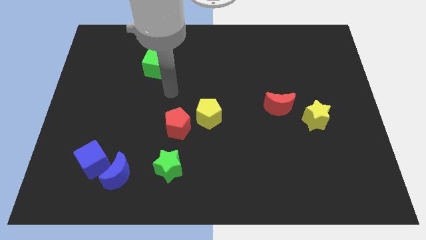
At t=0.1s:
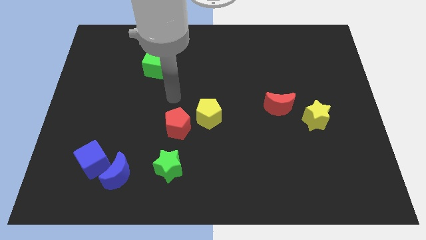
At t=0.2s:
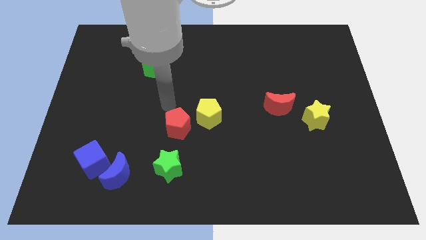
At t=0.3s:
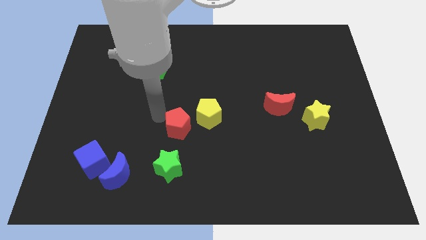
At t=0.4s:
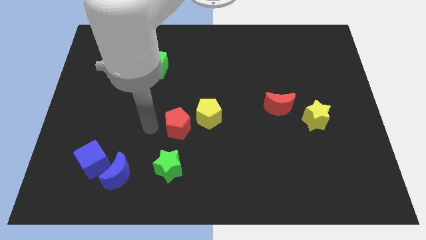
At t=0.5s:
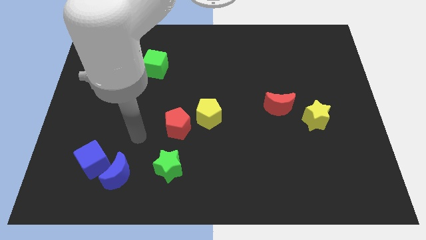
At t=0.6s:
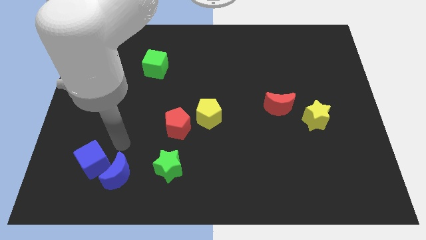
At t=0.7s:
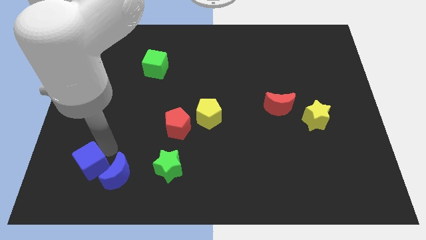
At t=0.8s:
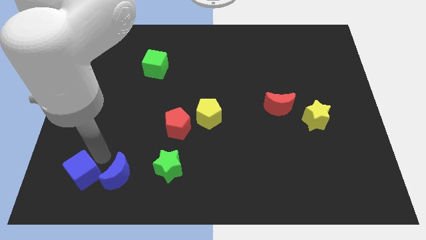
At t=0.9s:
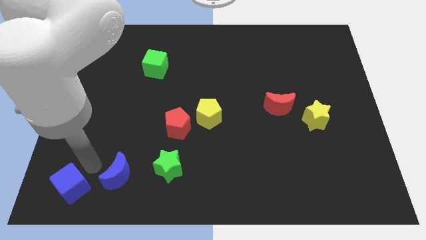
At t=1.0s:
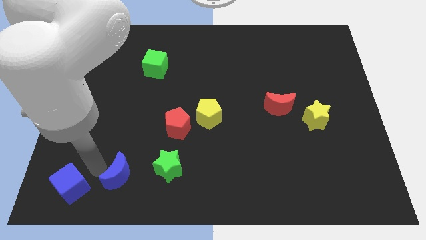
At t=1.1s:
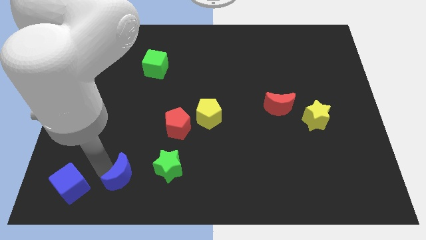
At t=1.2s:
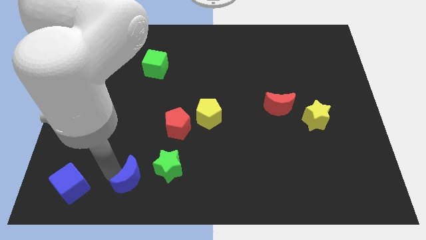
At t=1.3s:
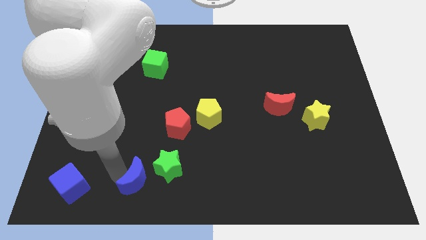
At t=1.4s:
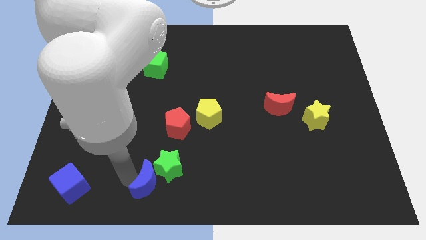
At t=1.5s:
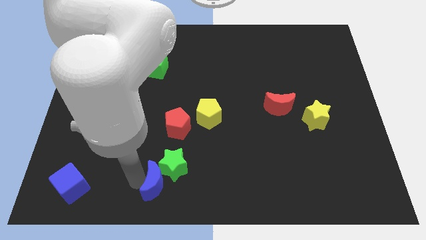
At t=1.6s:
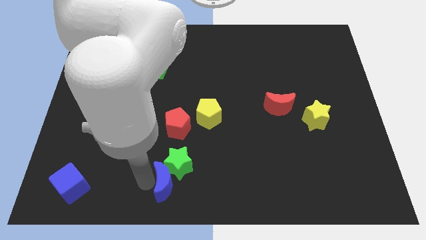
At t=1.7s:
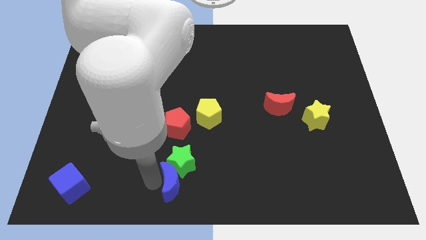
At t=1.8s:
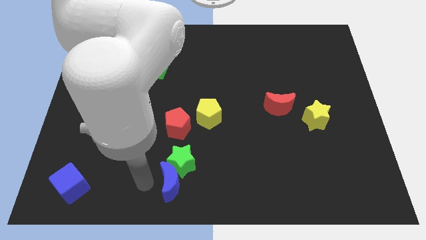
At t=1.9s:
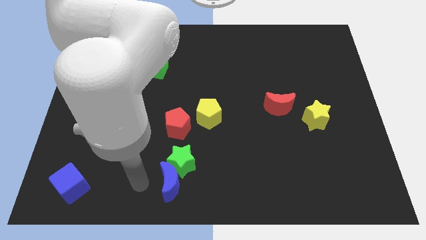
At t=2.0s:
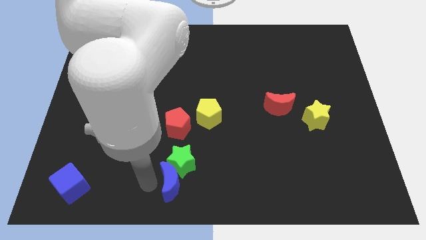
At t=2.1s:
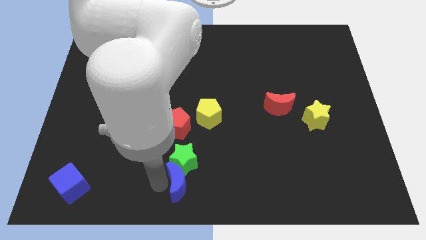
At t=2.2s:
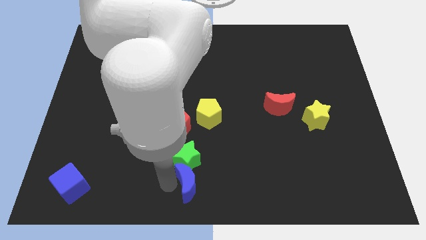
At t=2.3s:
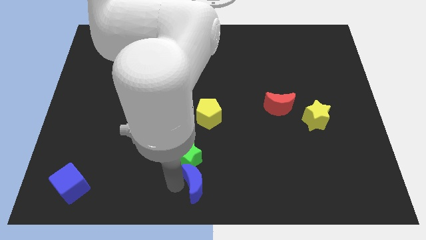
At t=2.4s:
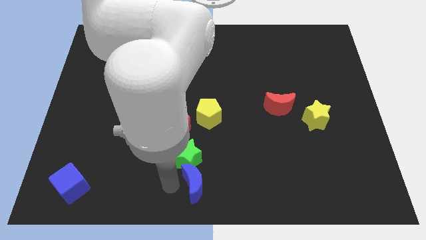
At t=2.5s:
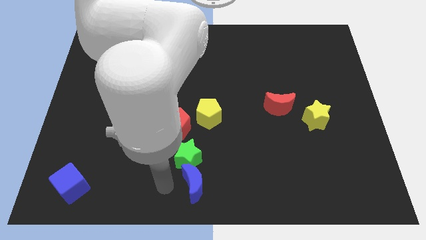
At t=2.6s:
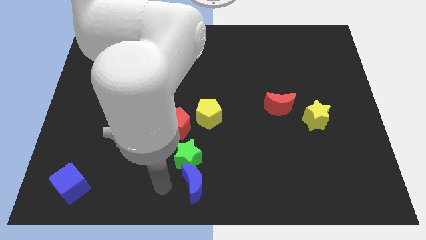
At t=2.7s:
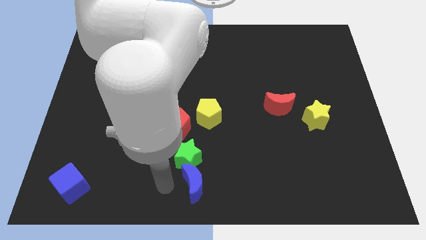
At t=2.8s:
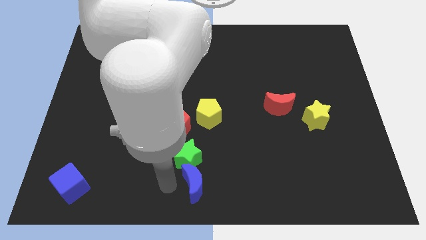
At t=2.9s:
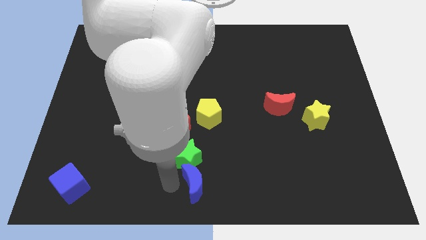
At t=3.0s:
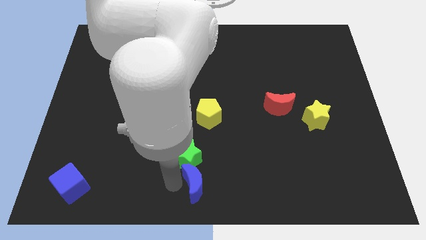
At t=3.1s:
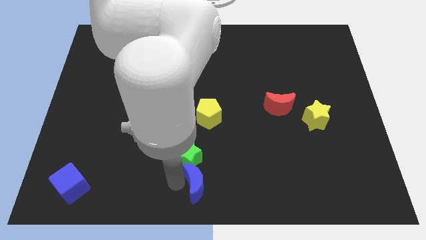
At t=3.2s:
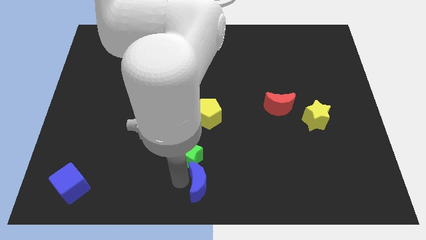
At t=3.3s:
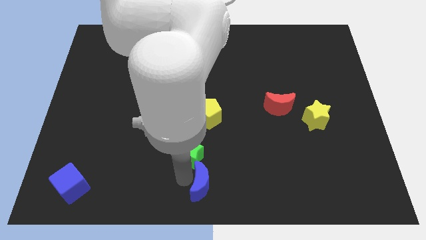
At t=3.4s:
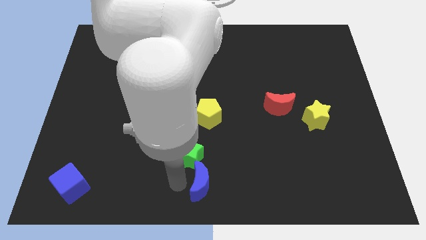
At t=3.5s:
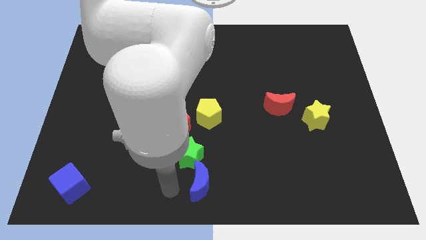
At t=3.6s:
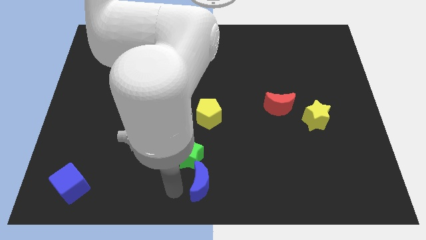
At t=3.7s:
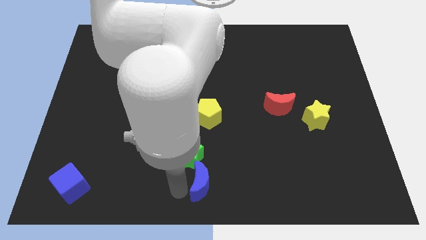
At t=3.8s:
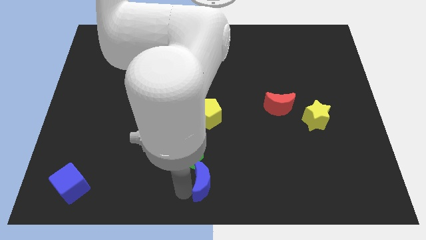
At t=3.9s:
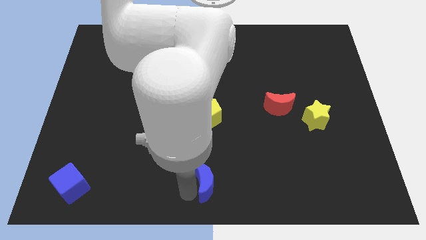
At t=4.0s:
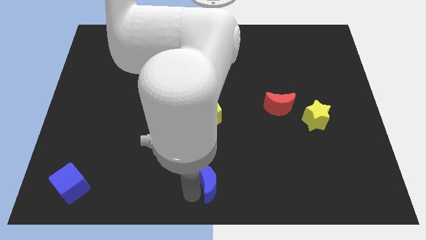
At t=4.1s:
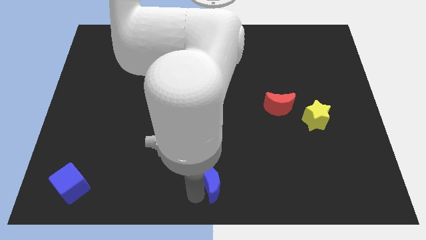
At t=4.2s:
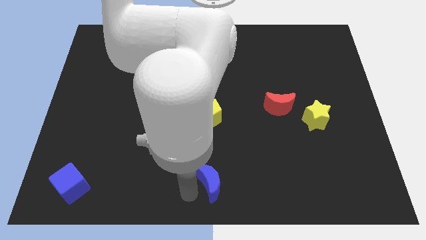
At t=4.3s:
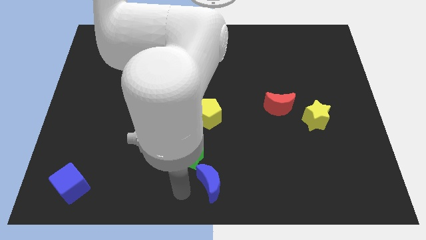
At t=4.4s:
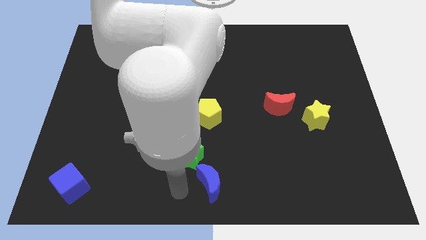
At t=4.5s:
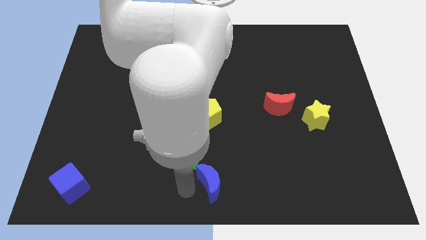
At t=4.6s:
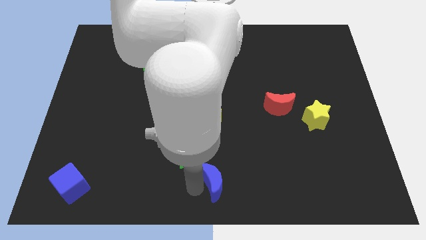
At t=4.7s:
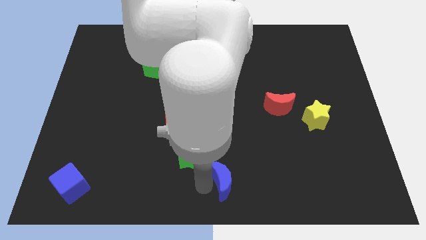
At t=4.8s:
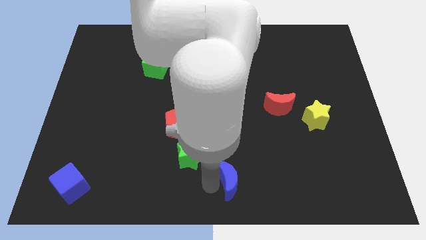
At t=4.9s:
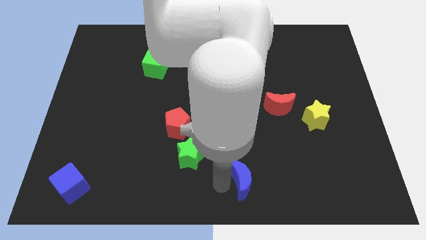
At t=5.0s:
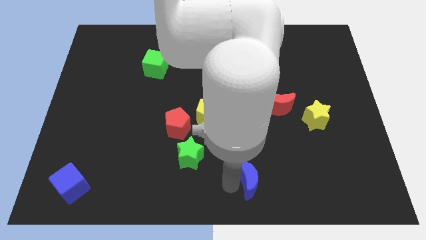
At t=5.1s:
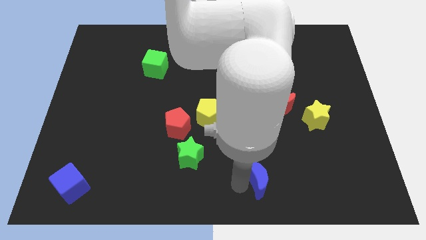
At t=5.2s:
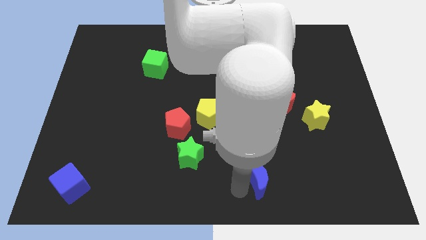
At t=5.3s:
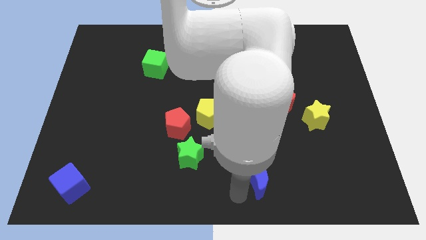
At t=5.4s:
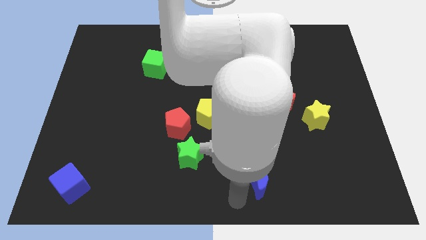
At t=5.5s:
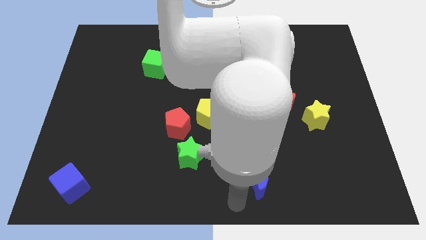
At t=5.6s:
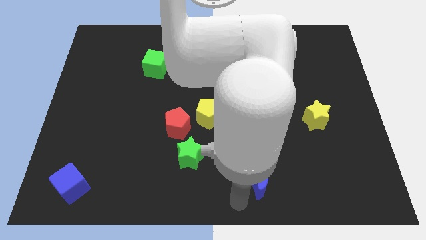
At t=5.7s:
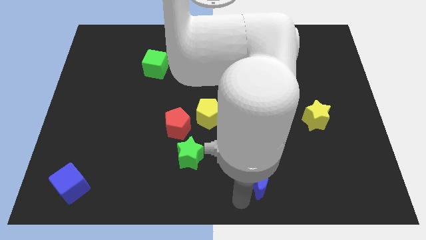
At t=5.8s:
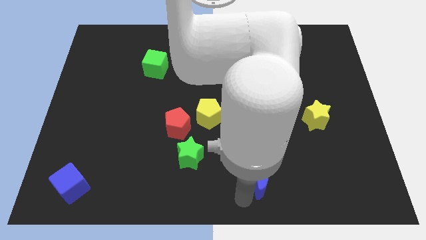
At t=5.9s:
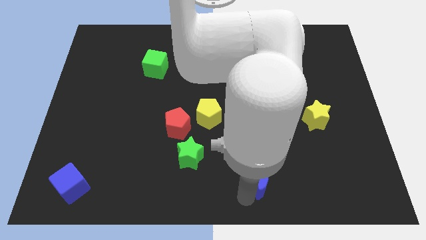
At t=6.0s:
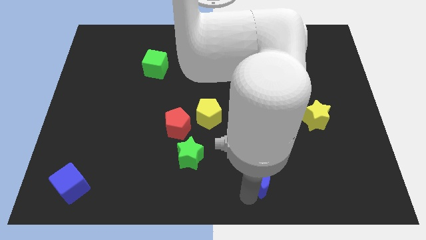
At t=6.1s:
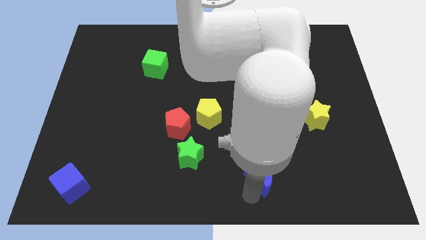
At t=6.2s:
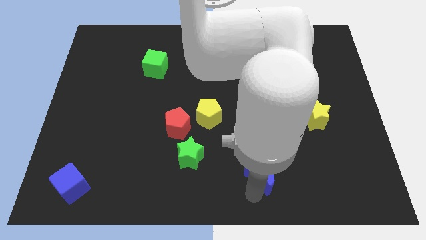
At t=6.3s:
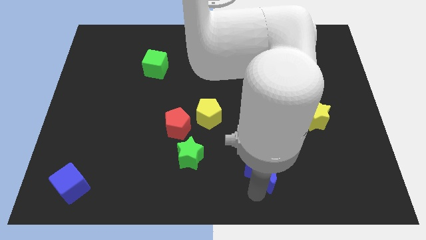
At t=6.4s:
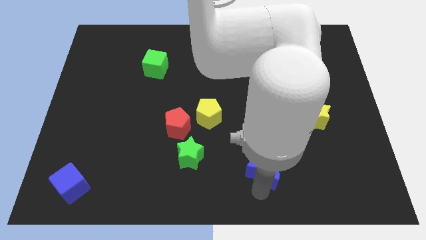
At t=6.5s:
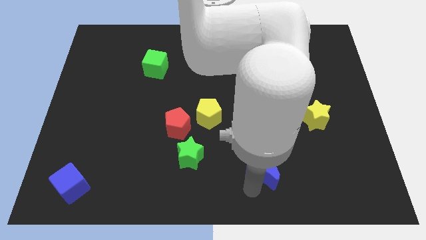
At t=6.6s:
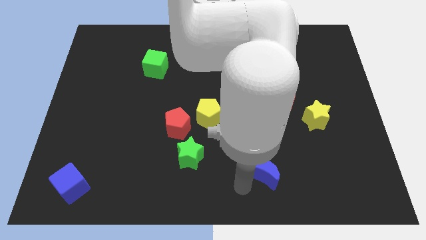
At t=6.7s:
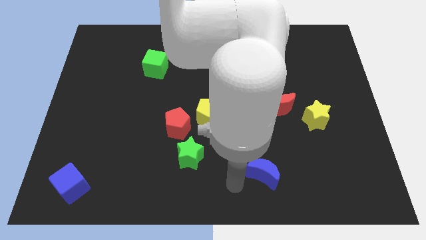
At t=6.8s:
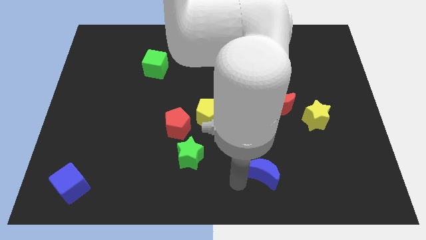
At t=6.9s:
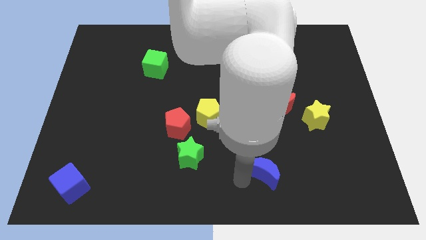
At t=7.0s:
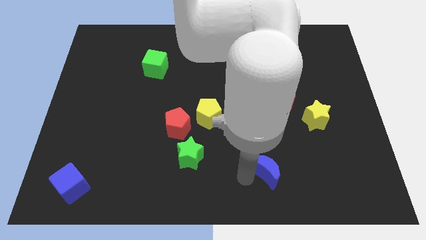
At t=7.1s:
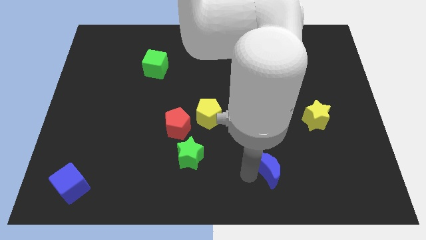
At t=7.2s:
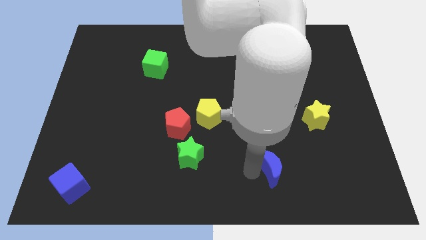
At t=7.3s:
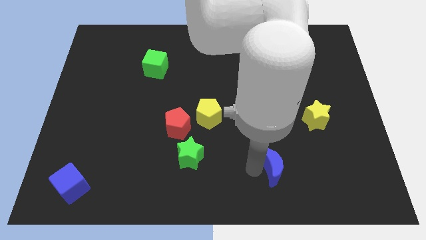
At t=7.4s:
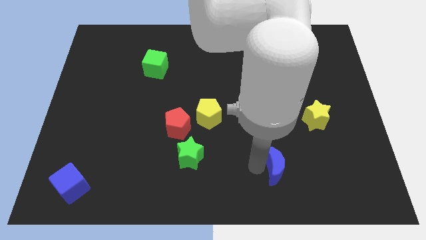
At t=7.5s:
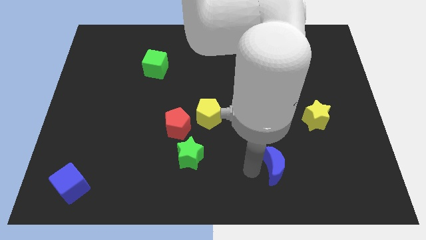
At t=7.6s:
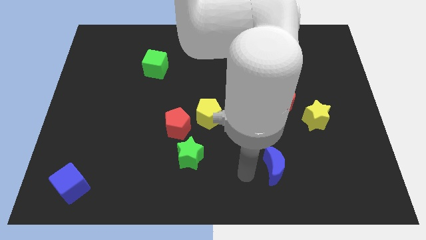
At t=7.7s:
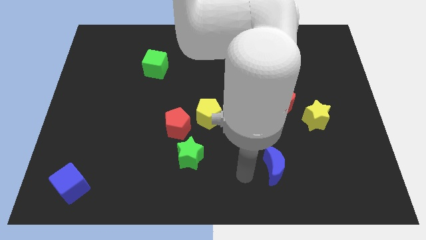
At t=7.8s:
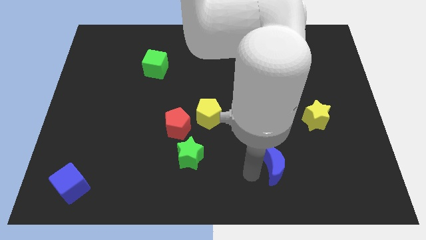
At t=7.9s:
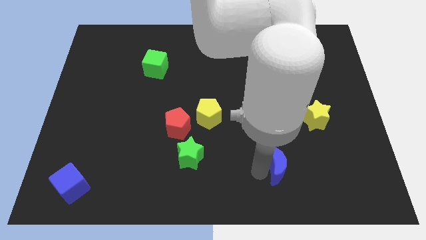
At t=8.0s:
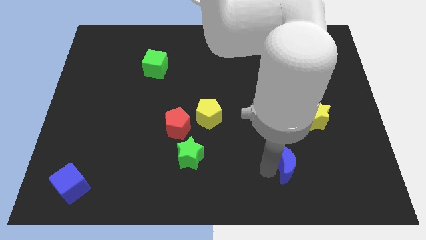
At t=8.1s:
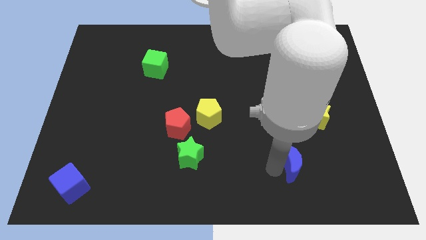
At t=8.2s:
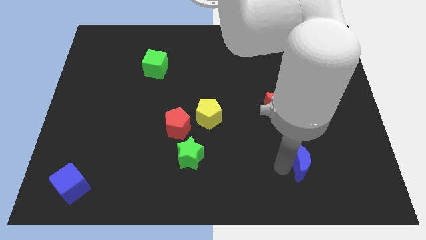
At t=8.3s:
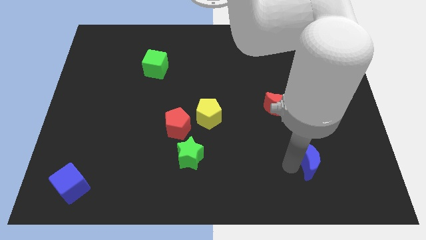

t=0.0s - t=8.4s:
slide the blue moon to the bottom of the yellow star
